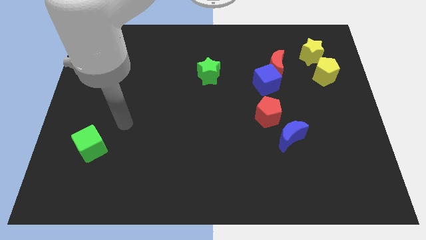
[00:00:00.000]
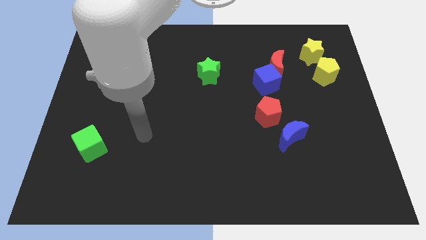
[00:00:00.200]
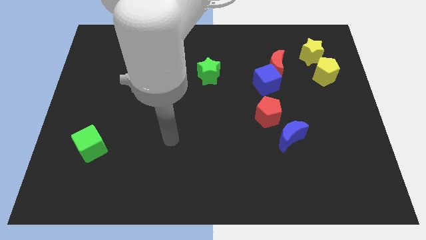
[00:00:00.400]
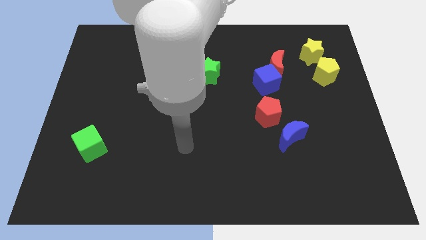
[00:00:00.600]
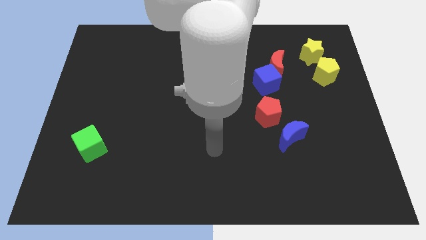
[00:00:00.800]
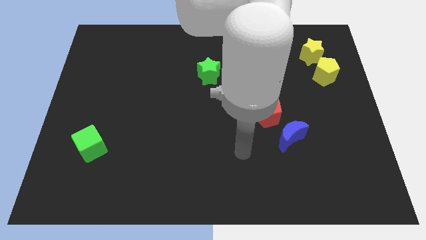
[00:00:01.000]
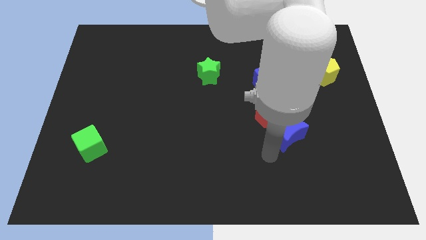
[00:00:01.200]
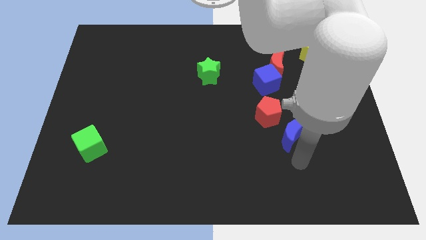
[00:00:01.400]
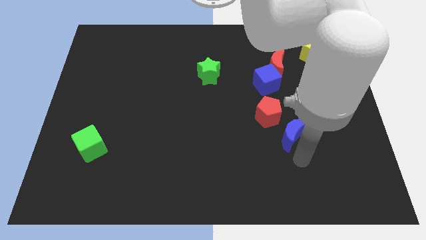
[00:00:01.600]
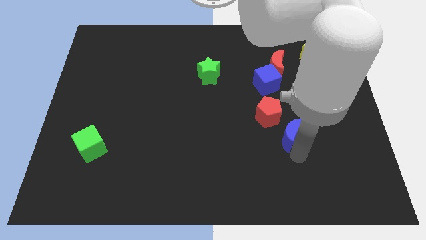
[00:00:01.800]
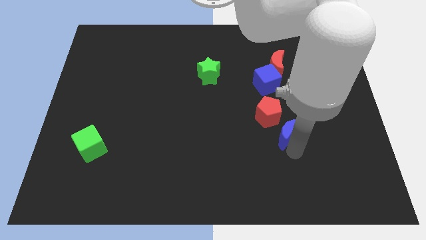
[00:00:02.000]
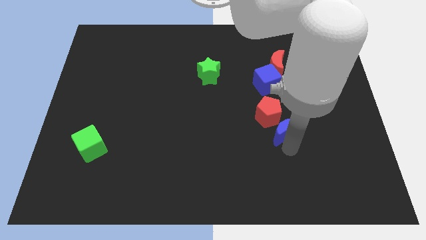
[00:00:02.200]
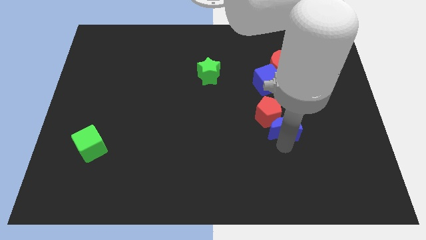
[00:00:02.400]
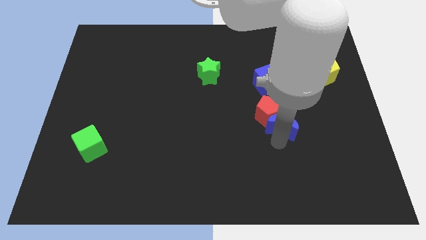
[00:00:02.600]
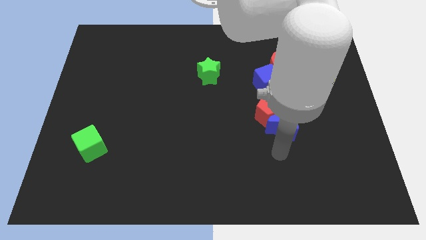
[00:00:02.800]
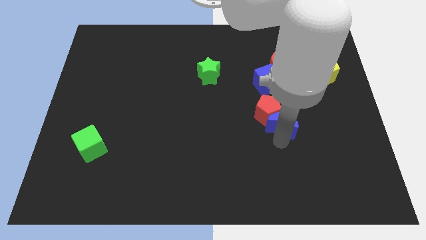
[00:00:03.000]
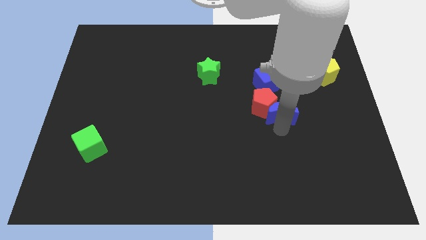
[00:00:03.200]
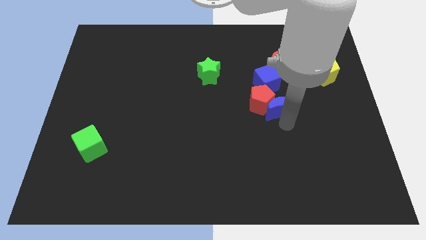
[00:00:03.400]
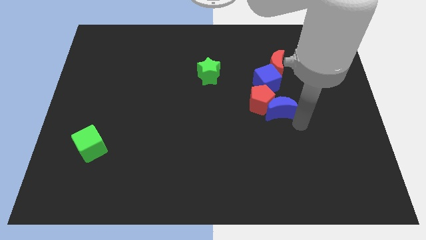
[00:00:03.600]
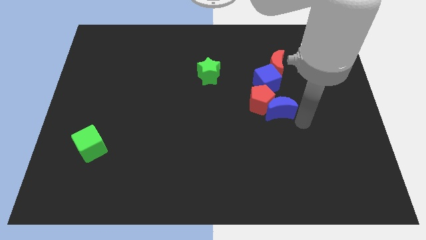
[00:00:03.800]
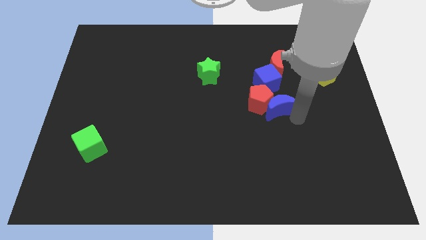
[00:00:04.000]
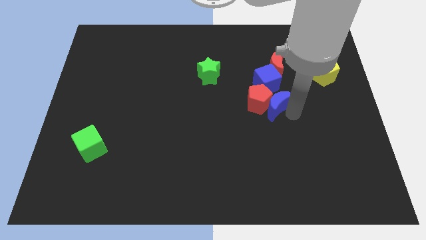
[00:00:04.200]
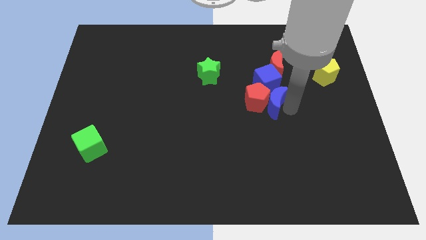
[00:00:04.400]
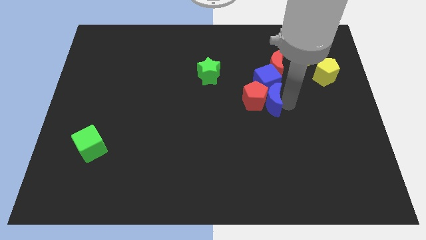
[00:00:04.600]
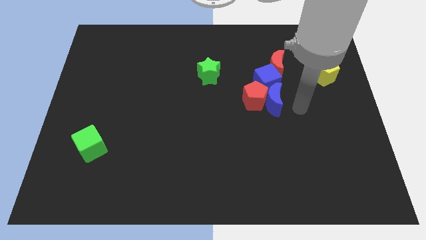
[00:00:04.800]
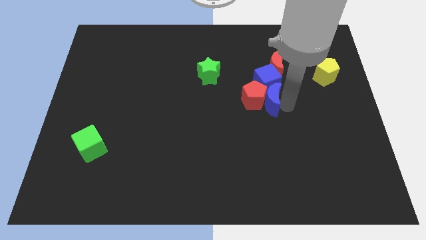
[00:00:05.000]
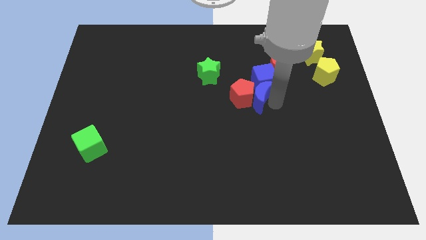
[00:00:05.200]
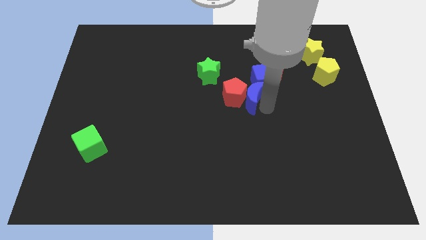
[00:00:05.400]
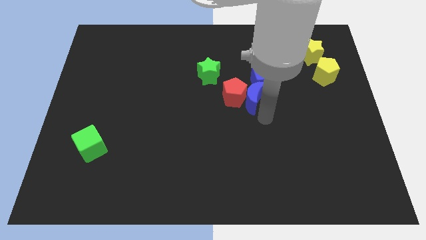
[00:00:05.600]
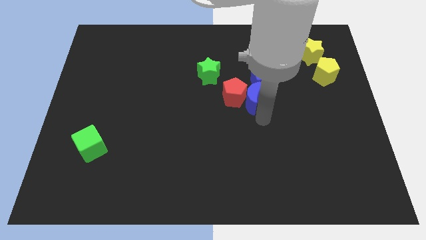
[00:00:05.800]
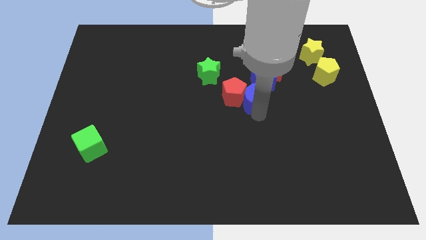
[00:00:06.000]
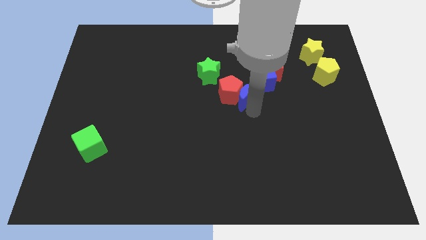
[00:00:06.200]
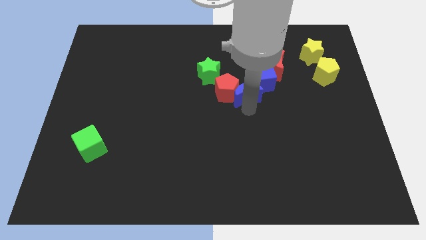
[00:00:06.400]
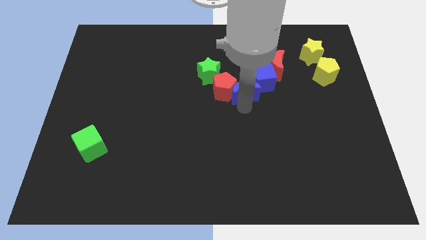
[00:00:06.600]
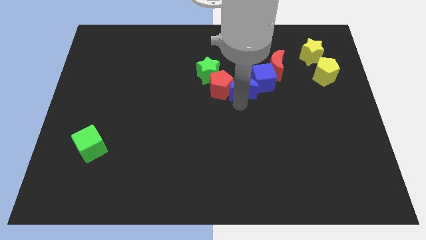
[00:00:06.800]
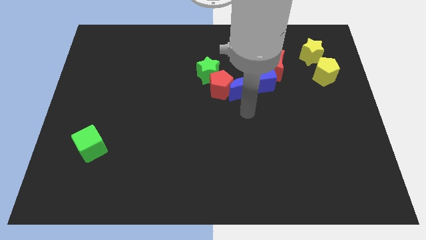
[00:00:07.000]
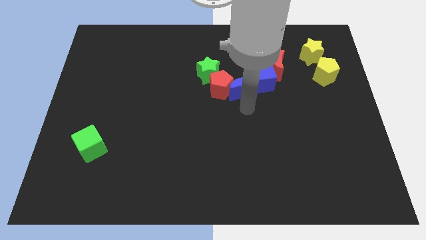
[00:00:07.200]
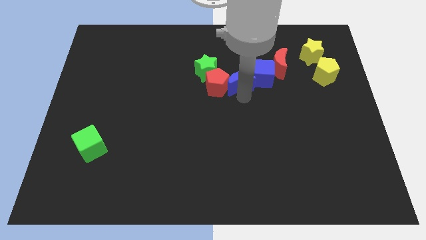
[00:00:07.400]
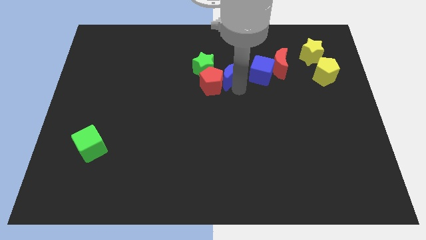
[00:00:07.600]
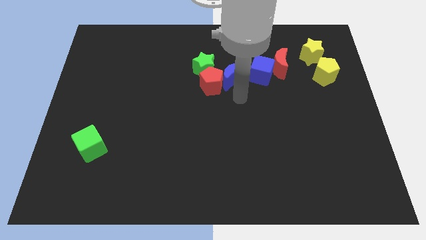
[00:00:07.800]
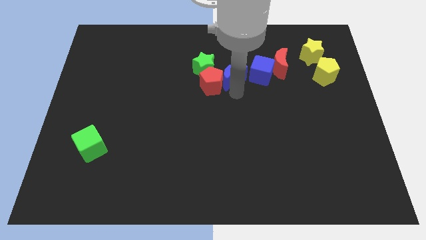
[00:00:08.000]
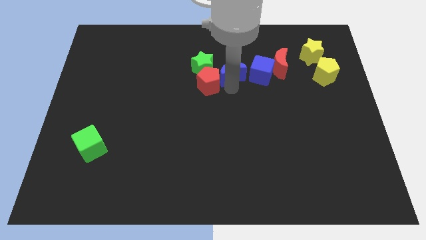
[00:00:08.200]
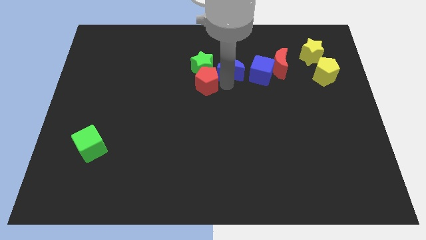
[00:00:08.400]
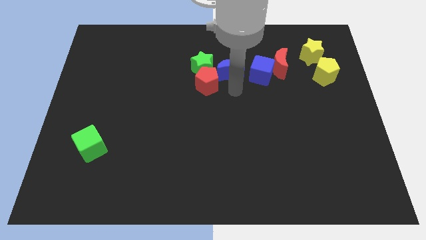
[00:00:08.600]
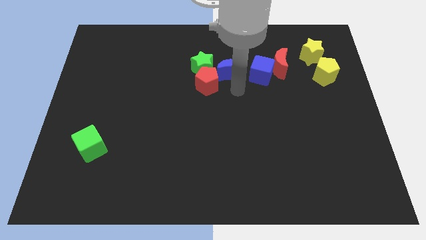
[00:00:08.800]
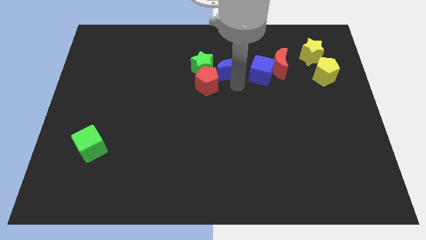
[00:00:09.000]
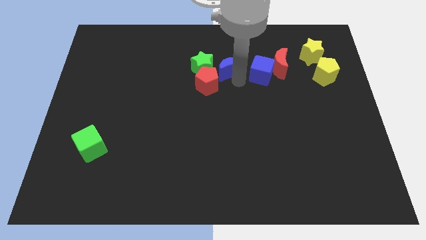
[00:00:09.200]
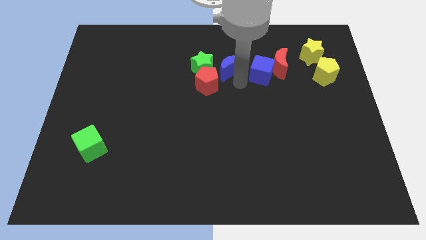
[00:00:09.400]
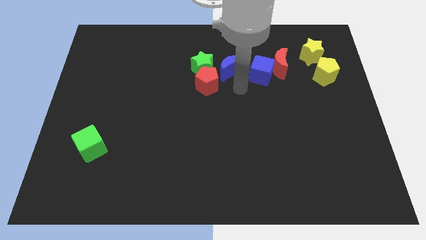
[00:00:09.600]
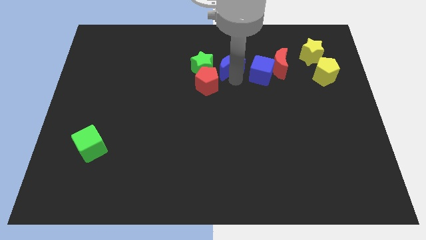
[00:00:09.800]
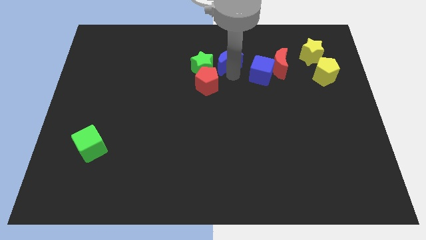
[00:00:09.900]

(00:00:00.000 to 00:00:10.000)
push the blue moon to the top right of the green star

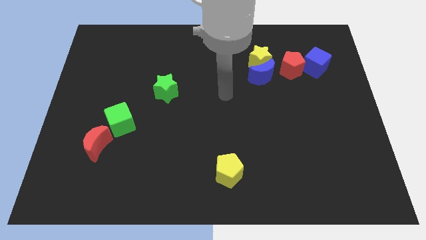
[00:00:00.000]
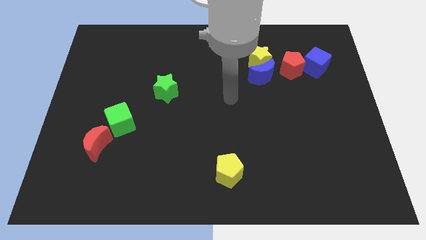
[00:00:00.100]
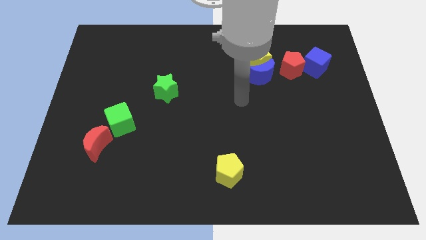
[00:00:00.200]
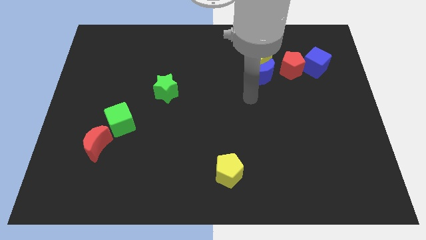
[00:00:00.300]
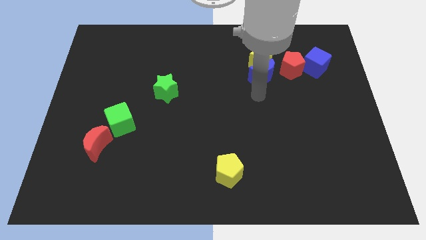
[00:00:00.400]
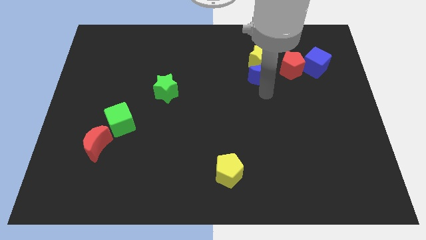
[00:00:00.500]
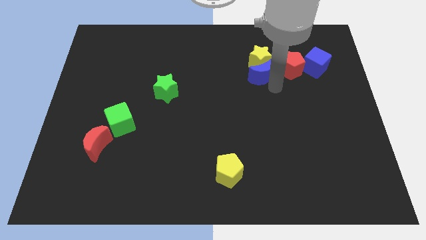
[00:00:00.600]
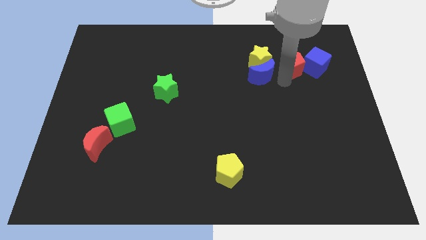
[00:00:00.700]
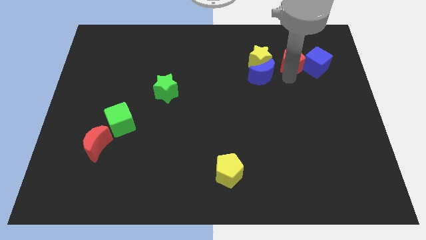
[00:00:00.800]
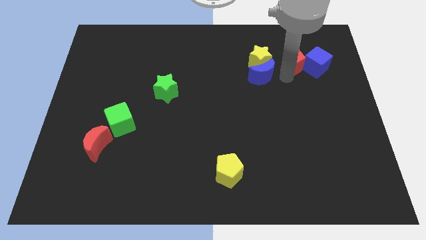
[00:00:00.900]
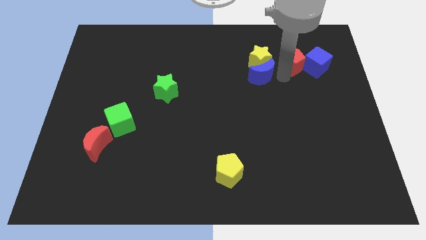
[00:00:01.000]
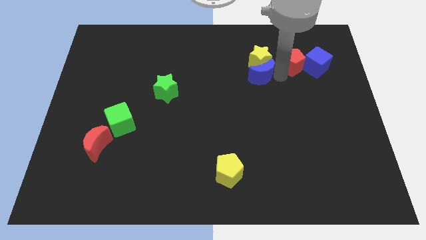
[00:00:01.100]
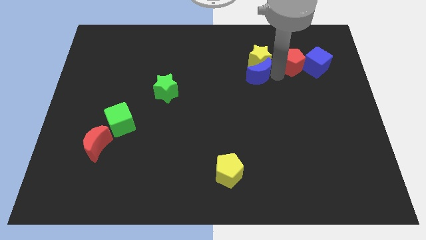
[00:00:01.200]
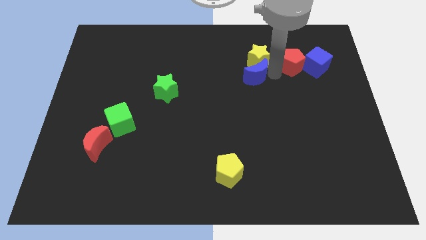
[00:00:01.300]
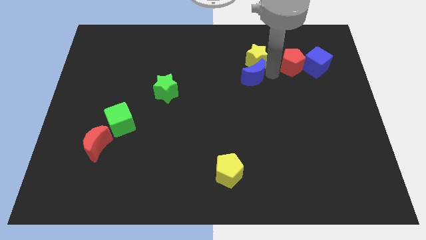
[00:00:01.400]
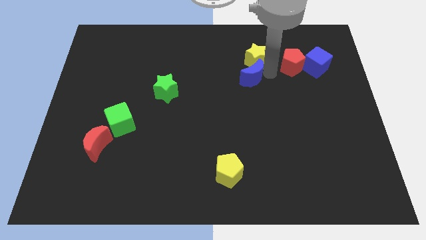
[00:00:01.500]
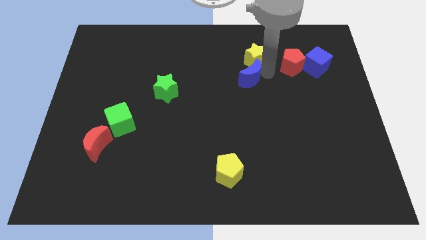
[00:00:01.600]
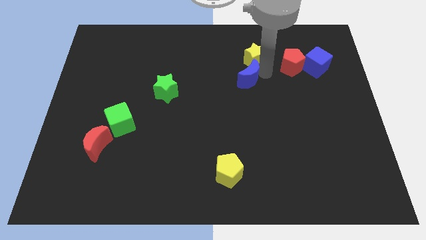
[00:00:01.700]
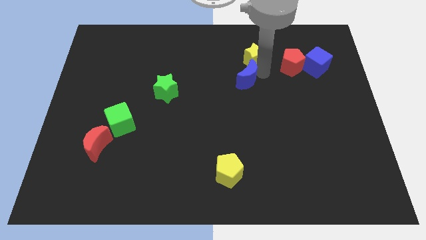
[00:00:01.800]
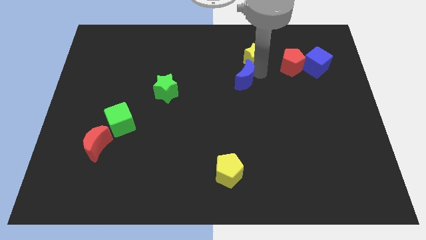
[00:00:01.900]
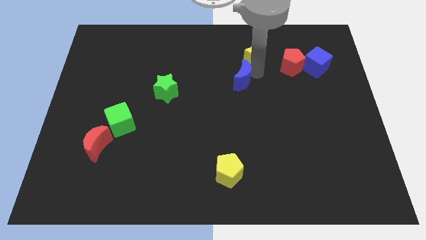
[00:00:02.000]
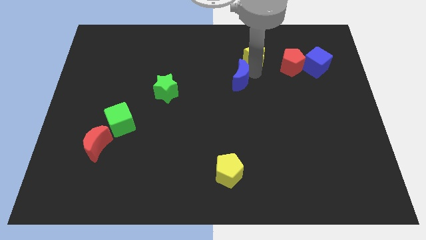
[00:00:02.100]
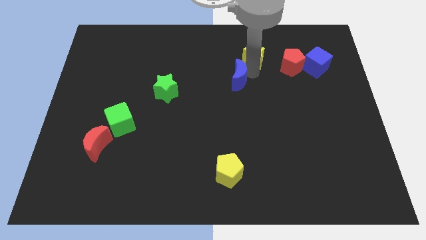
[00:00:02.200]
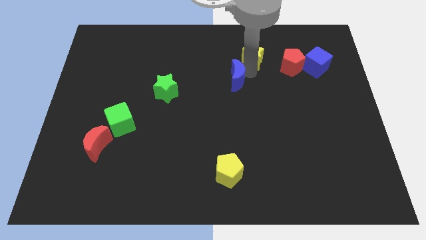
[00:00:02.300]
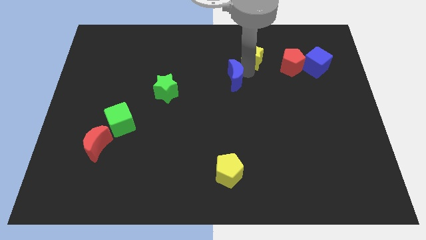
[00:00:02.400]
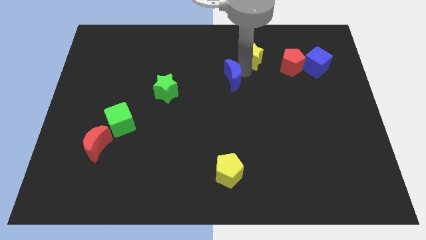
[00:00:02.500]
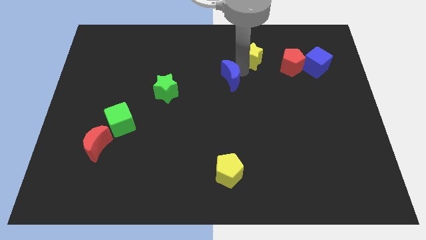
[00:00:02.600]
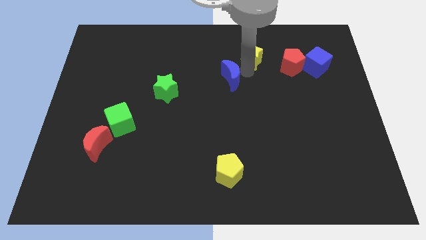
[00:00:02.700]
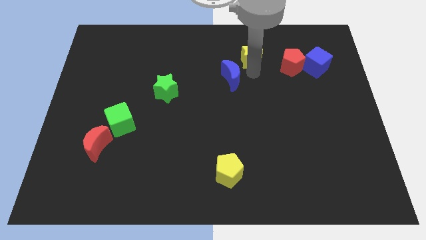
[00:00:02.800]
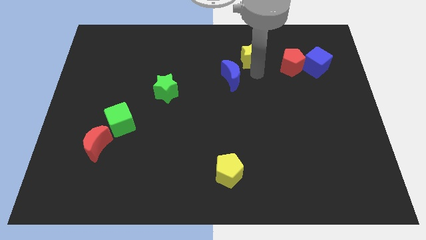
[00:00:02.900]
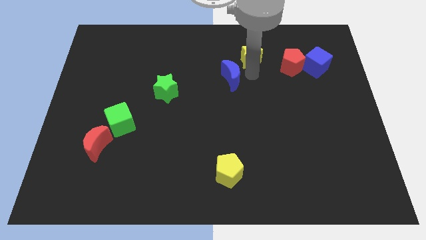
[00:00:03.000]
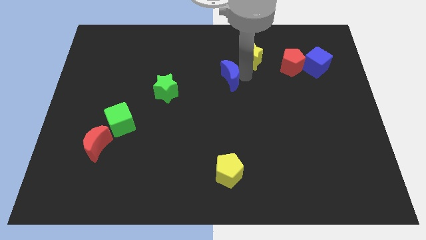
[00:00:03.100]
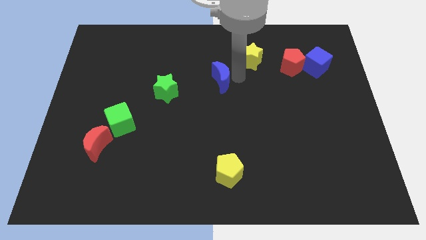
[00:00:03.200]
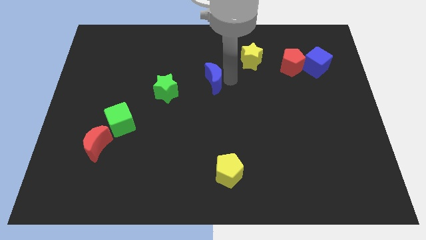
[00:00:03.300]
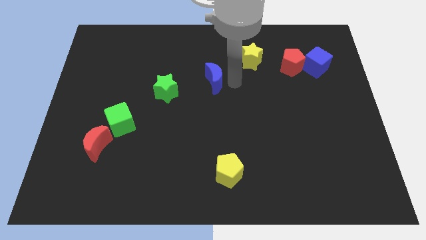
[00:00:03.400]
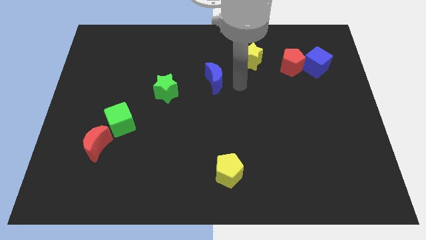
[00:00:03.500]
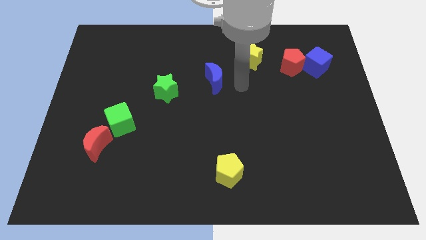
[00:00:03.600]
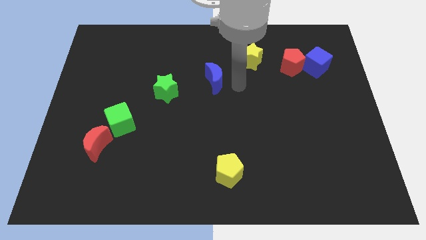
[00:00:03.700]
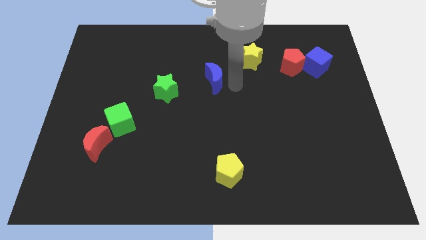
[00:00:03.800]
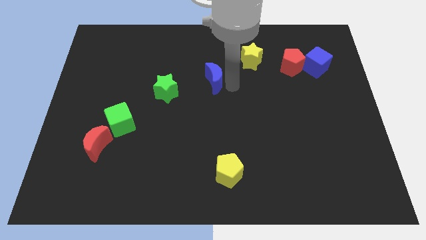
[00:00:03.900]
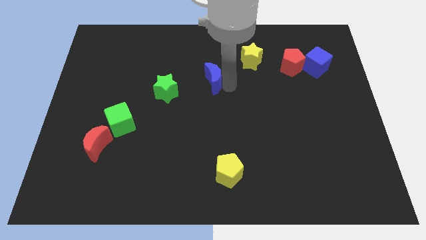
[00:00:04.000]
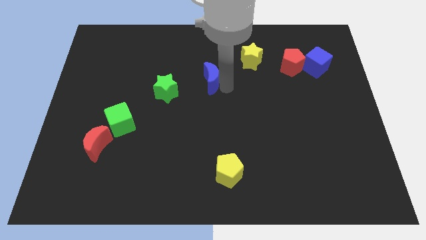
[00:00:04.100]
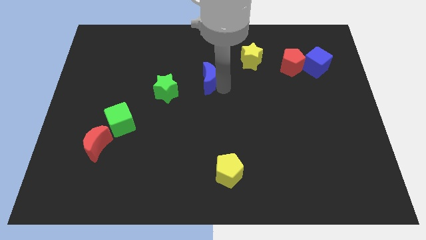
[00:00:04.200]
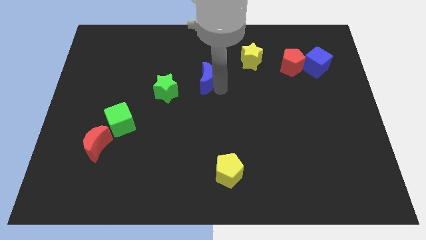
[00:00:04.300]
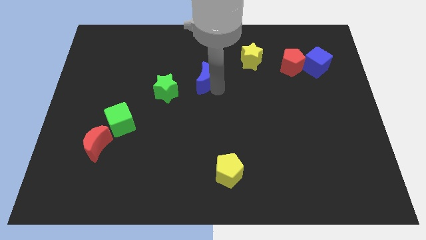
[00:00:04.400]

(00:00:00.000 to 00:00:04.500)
move the blue moon to the top right side of the green star
